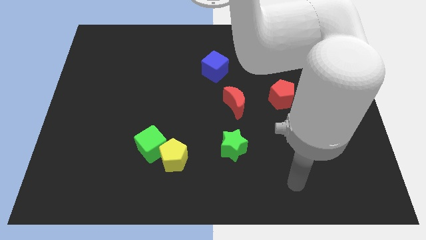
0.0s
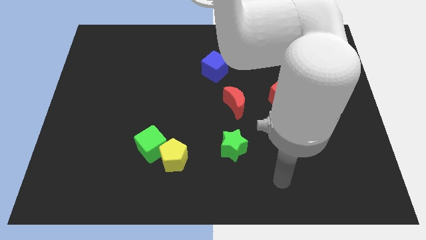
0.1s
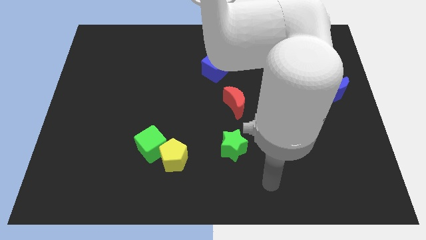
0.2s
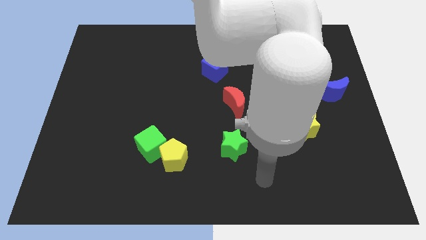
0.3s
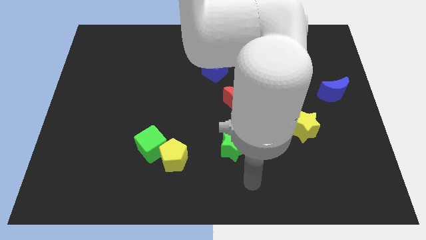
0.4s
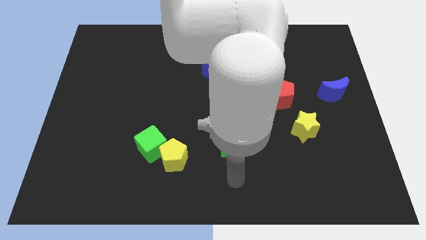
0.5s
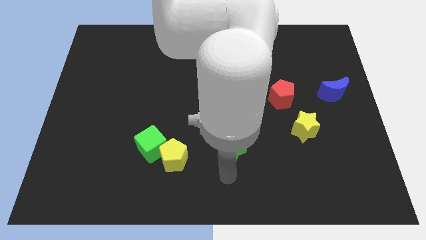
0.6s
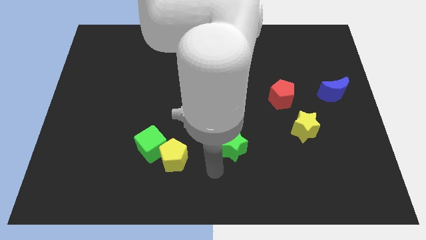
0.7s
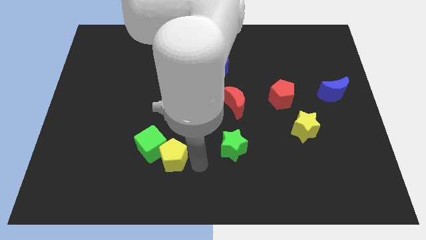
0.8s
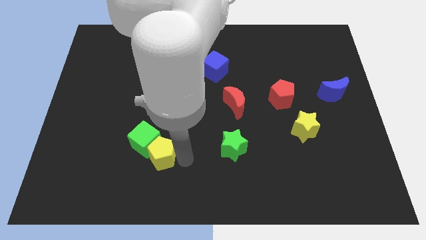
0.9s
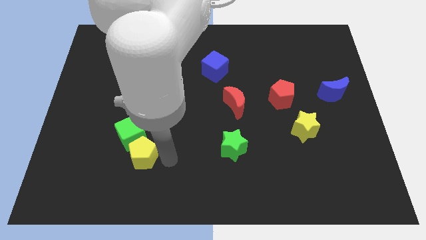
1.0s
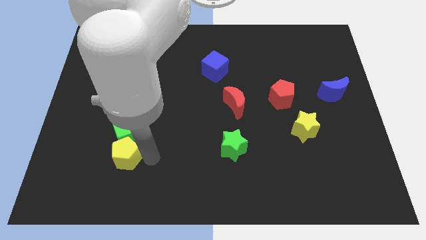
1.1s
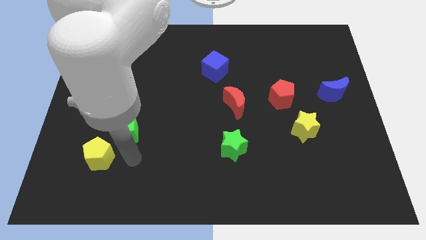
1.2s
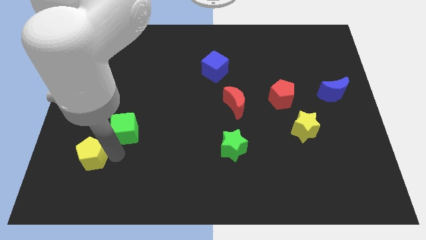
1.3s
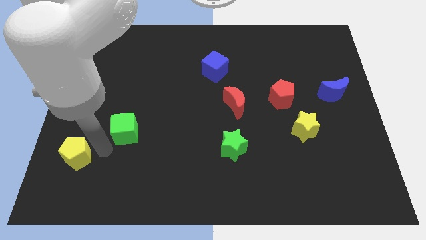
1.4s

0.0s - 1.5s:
move the green cube away from the yellow pentagon

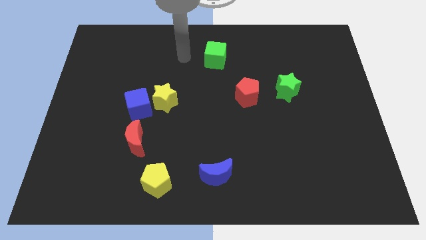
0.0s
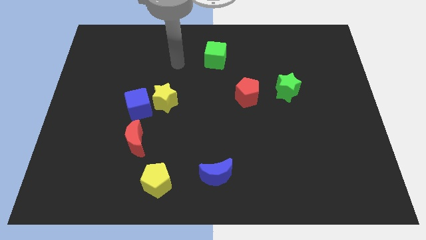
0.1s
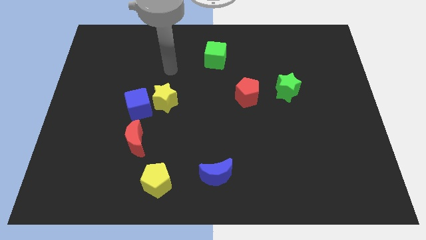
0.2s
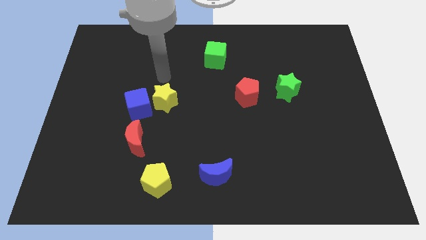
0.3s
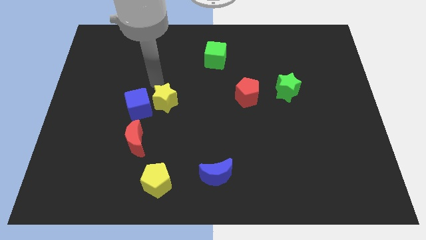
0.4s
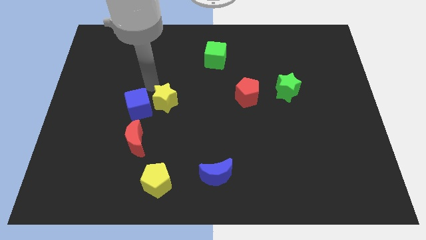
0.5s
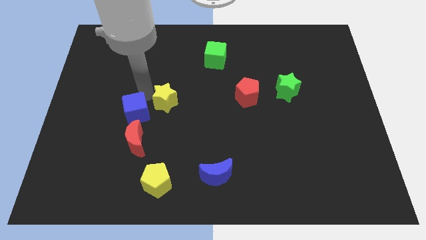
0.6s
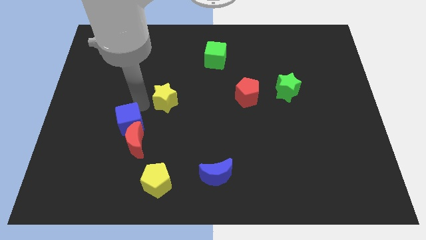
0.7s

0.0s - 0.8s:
pull the yellow star apart from the blue cube

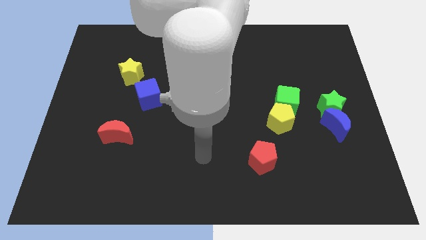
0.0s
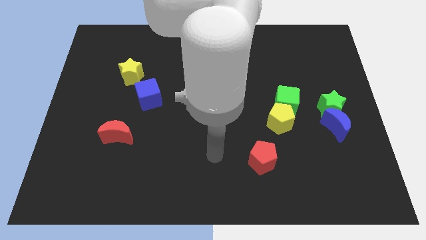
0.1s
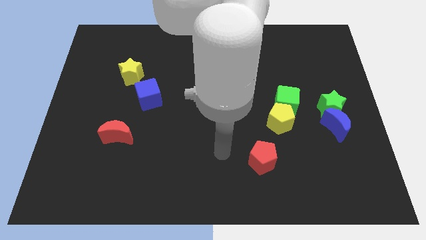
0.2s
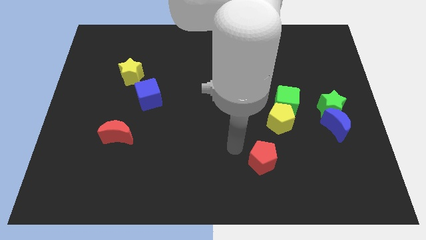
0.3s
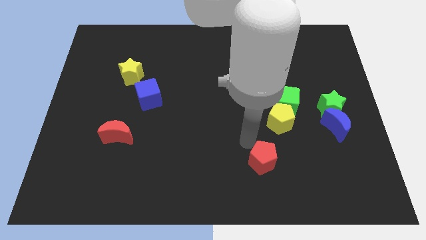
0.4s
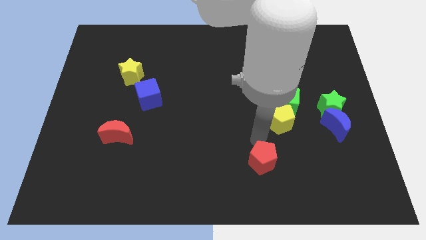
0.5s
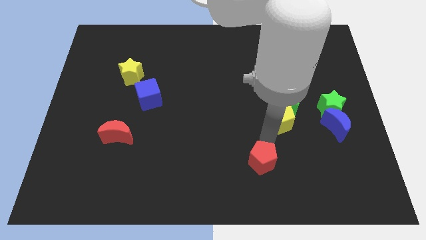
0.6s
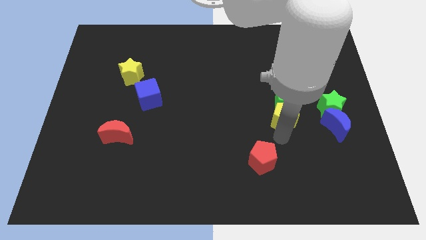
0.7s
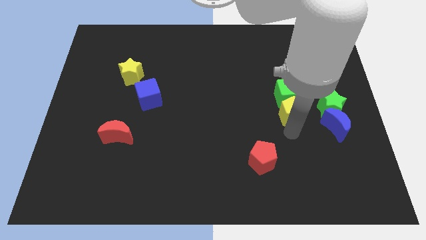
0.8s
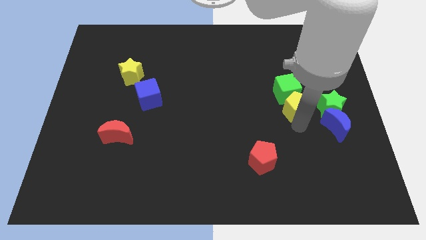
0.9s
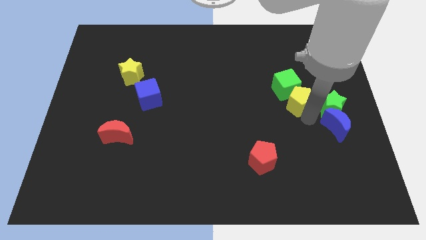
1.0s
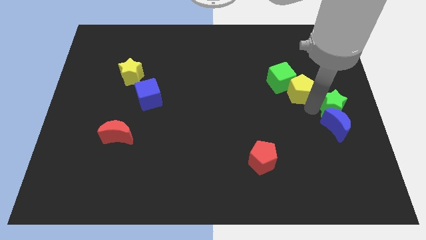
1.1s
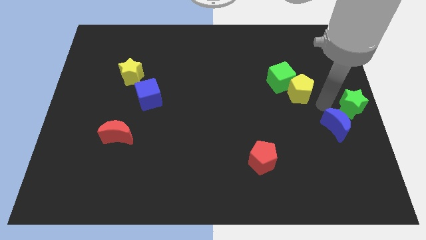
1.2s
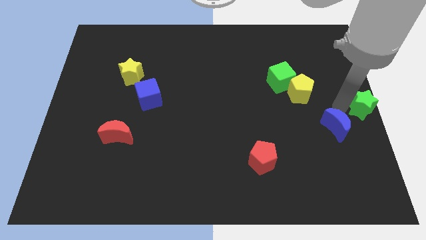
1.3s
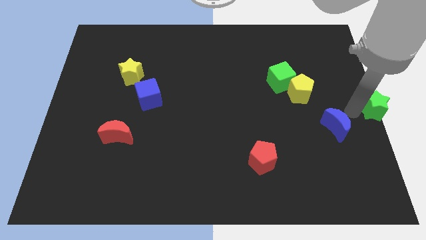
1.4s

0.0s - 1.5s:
separate the blue moon from the green star

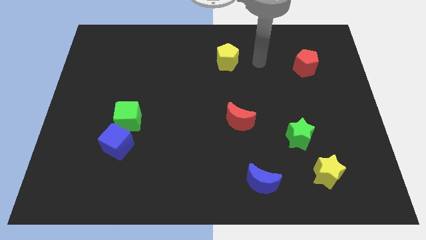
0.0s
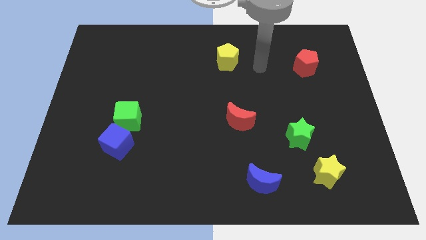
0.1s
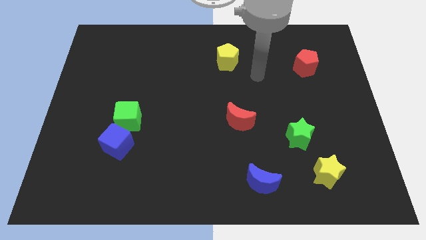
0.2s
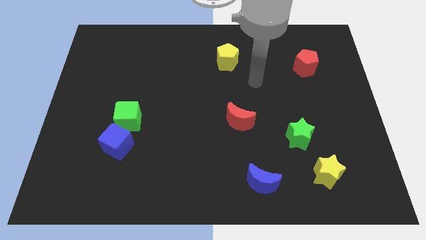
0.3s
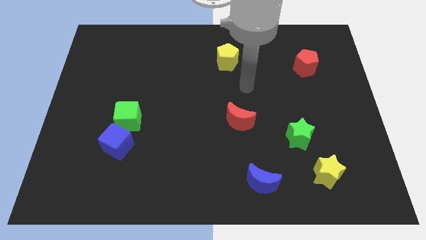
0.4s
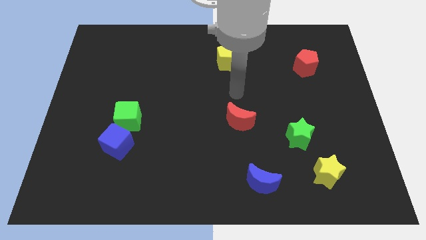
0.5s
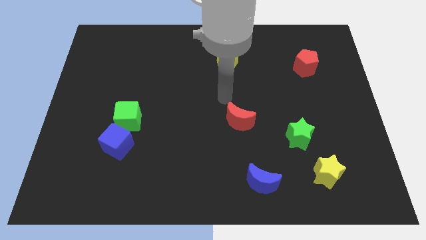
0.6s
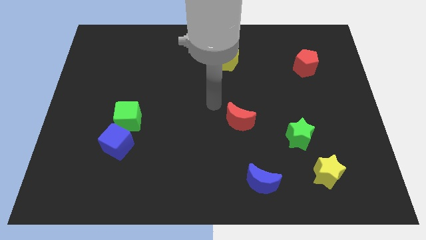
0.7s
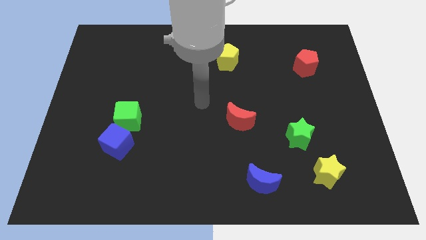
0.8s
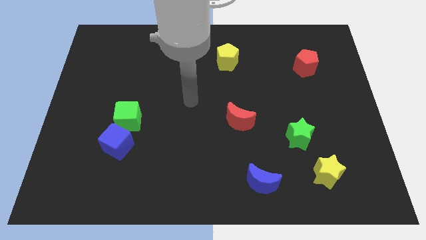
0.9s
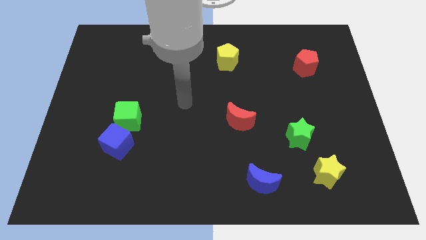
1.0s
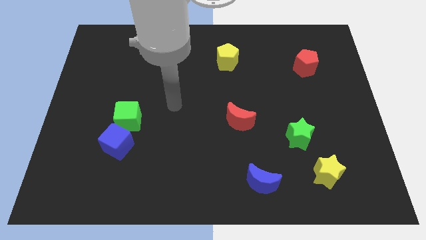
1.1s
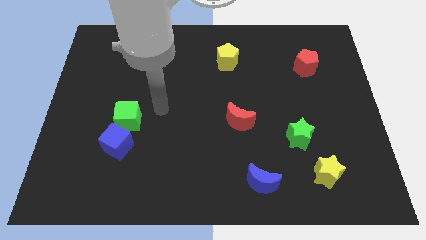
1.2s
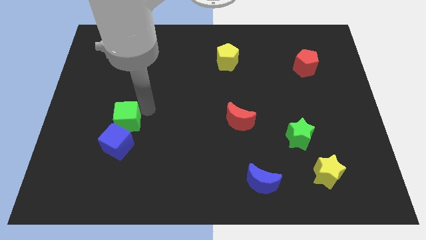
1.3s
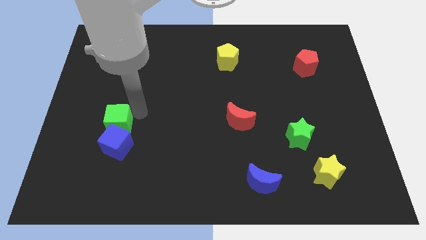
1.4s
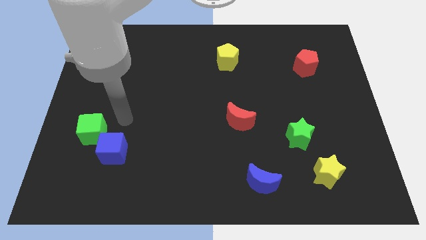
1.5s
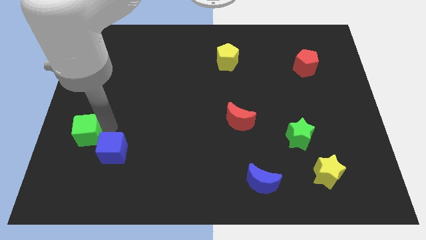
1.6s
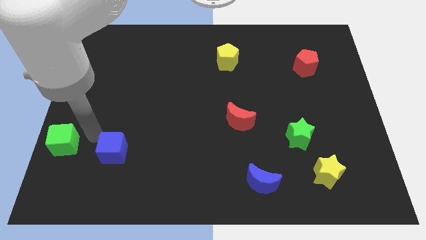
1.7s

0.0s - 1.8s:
move the blue cube away from the green cube

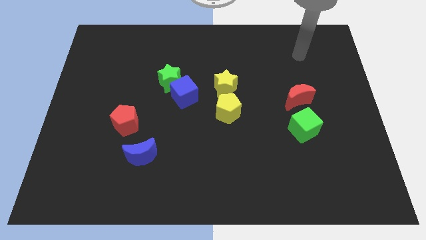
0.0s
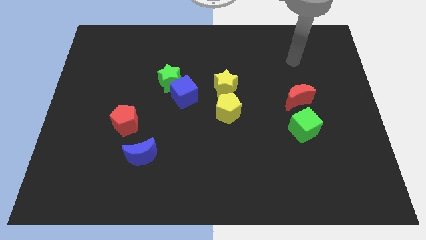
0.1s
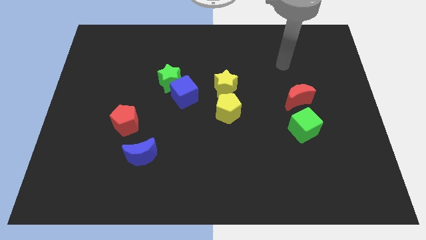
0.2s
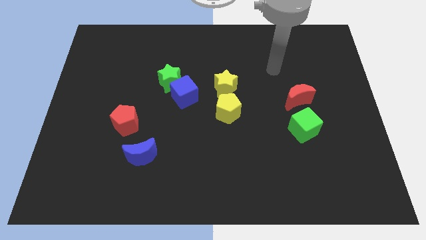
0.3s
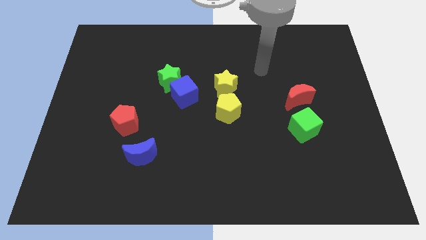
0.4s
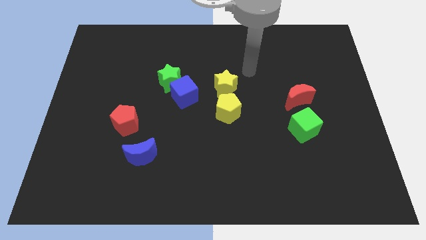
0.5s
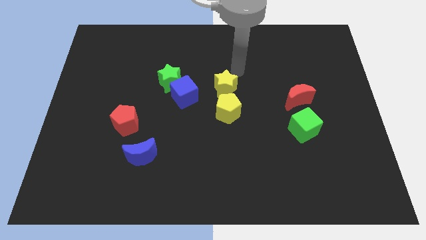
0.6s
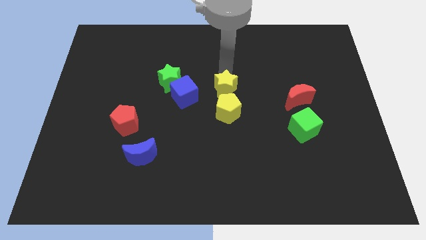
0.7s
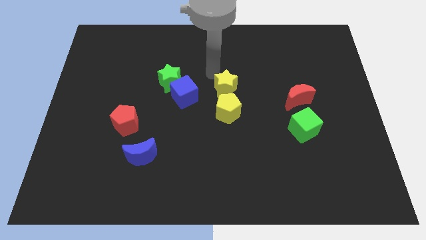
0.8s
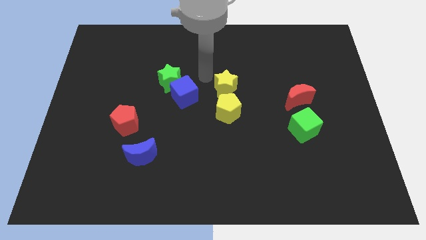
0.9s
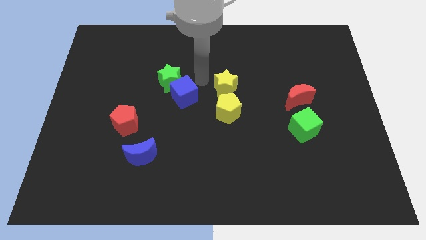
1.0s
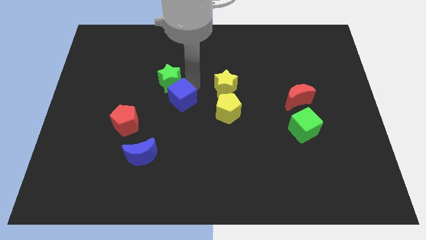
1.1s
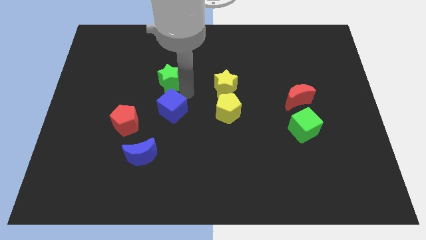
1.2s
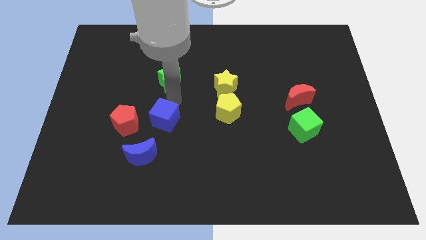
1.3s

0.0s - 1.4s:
separate the green star from the blue cube

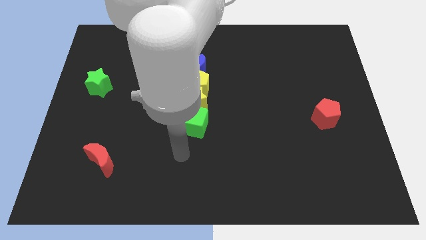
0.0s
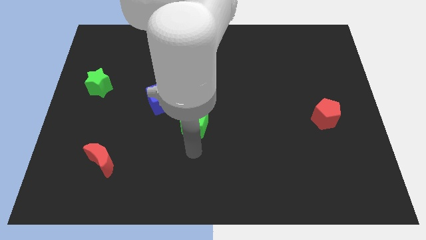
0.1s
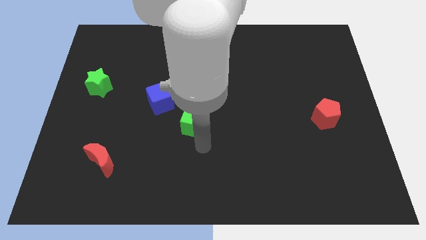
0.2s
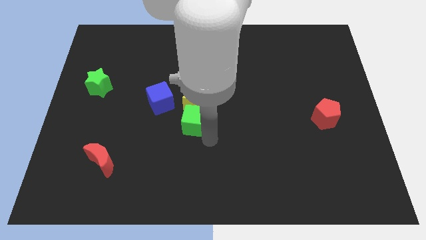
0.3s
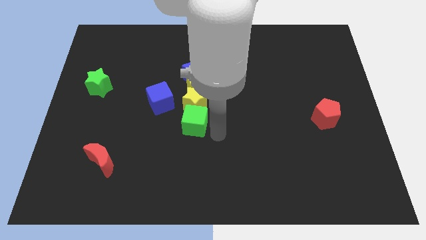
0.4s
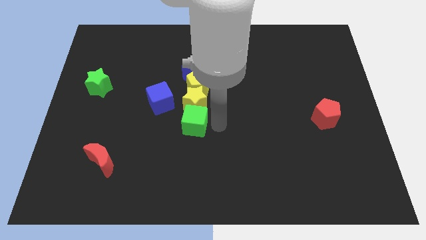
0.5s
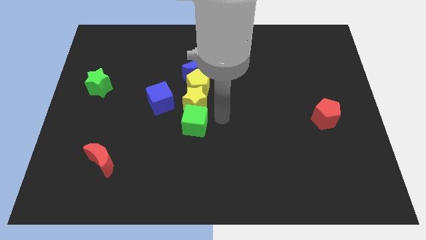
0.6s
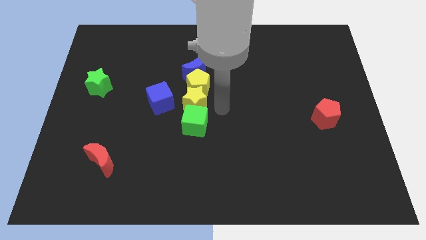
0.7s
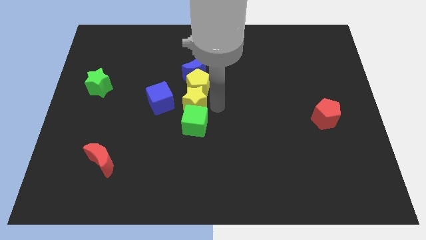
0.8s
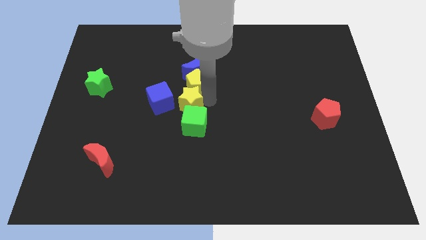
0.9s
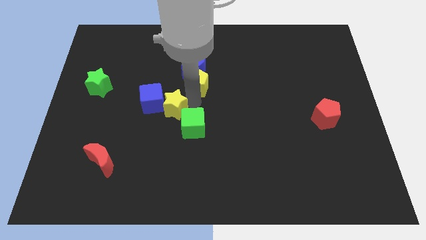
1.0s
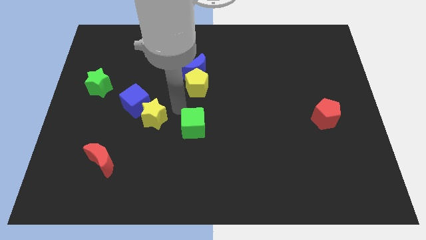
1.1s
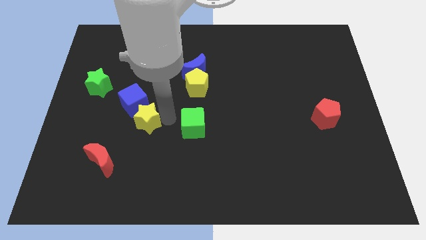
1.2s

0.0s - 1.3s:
pull the green cube apart from the yellow star

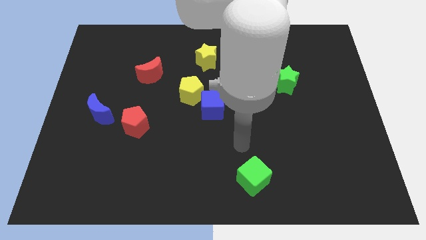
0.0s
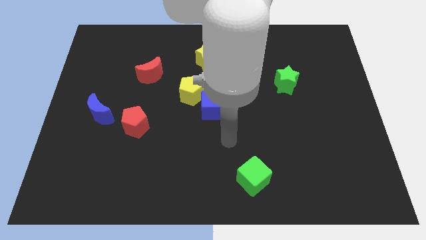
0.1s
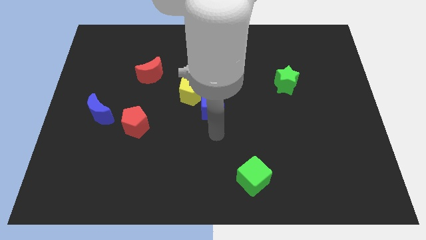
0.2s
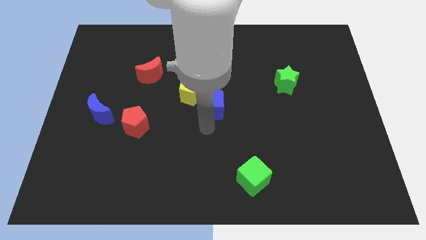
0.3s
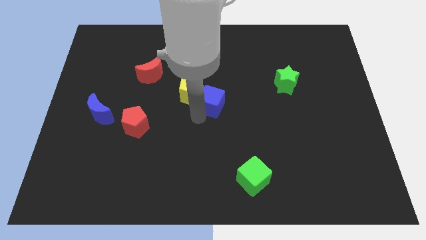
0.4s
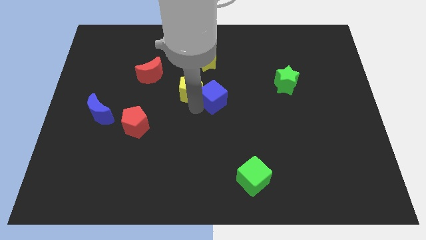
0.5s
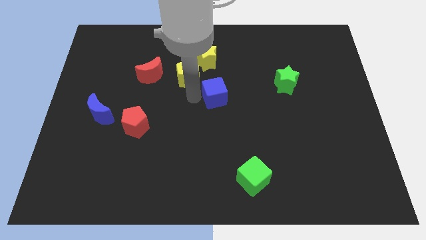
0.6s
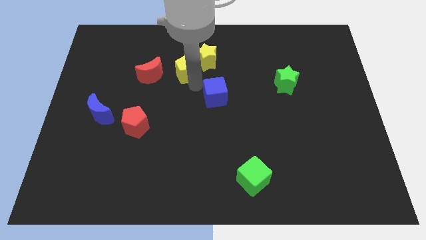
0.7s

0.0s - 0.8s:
pull the blue cube apart from the yellow pentagon

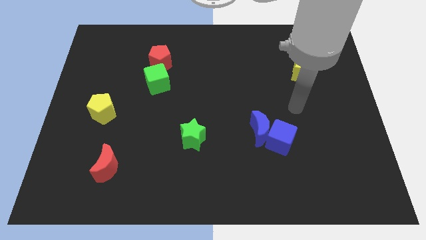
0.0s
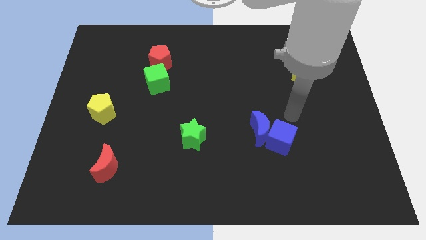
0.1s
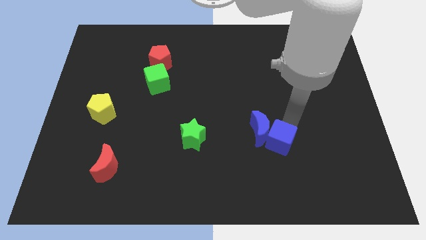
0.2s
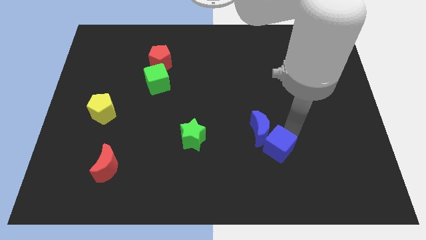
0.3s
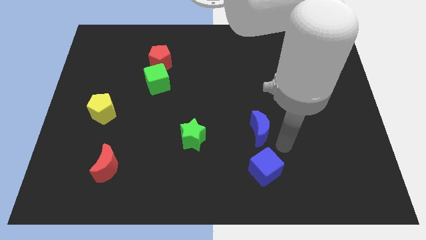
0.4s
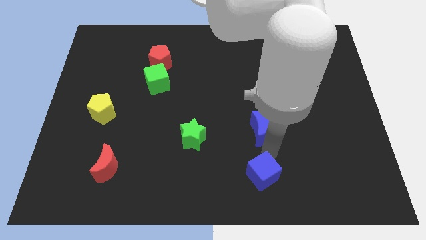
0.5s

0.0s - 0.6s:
move the blue moon away from the blue cube
